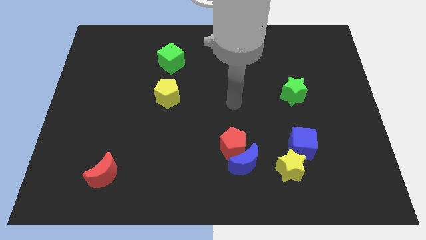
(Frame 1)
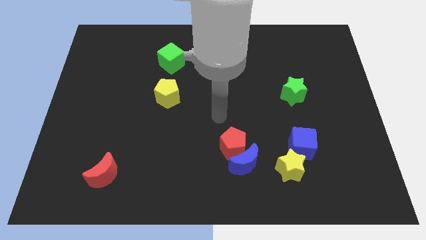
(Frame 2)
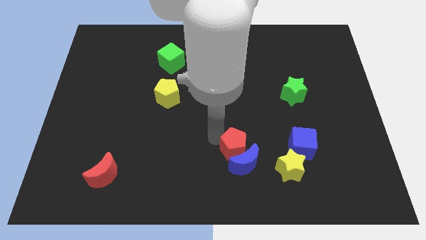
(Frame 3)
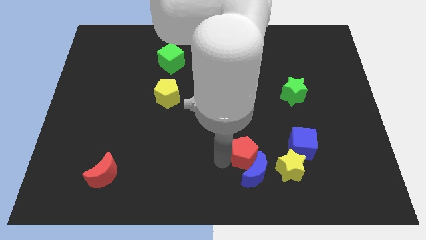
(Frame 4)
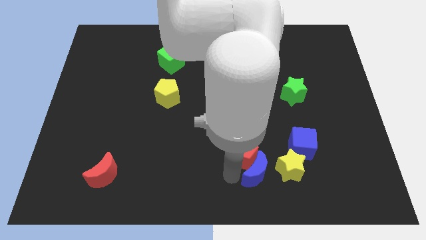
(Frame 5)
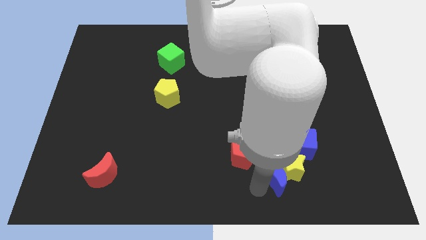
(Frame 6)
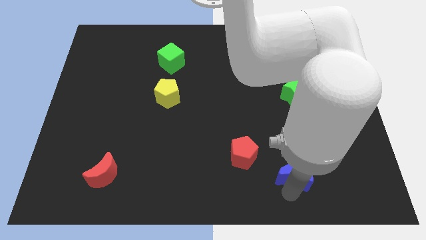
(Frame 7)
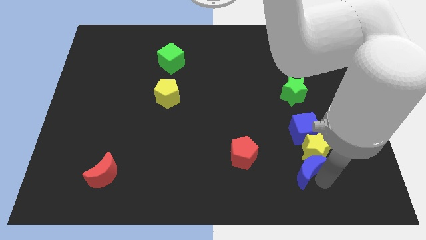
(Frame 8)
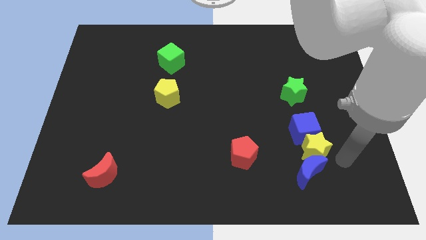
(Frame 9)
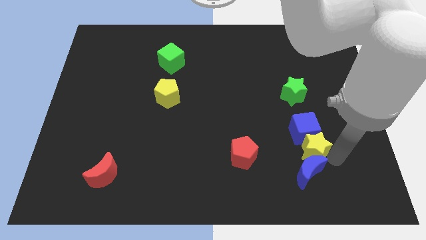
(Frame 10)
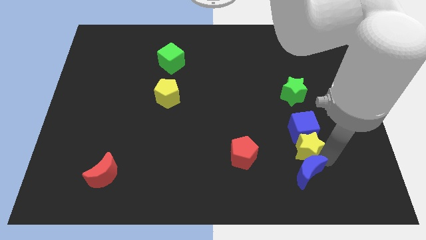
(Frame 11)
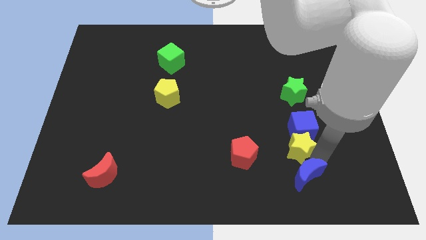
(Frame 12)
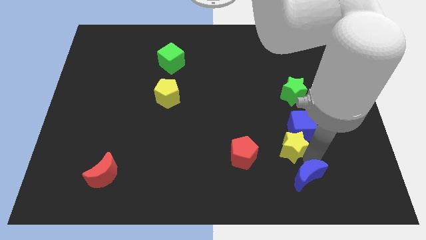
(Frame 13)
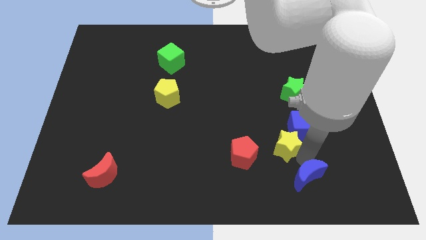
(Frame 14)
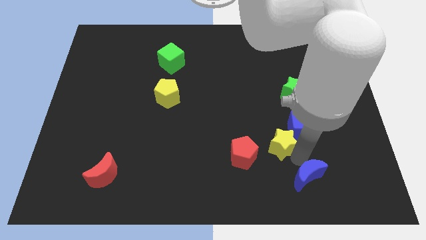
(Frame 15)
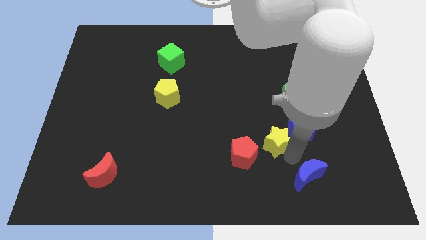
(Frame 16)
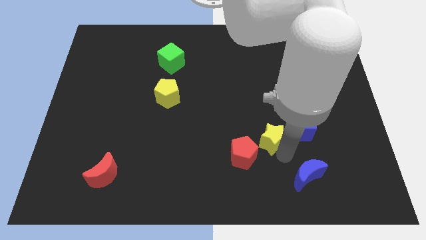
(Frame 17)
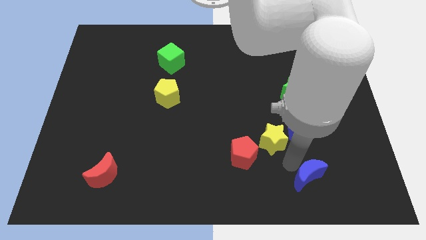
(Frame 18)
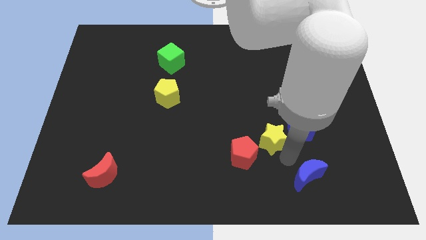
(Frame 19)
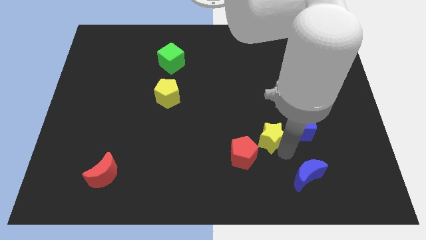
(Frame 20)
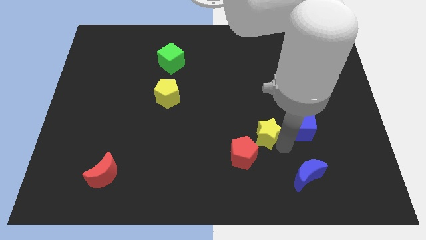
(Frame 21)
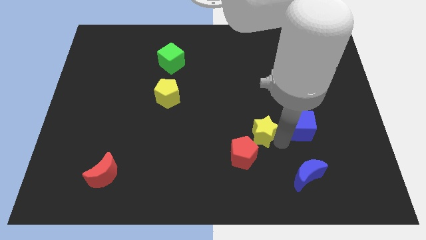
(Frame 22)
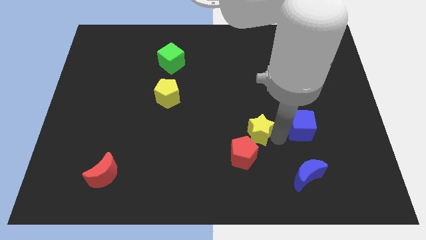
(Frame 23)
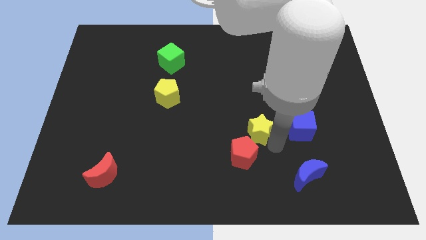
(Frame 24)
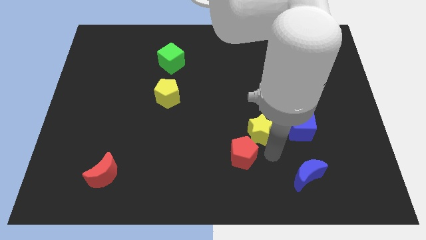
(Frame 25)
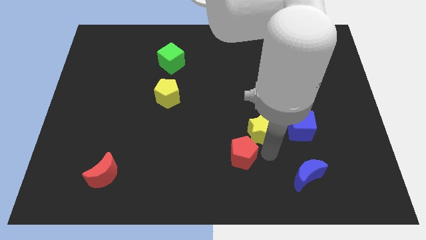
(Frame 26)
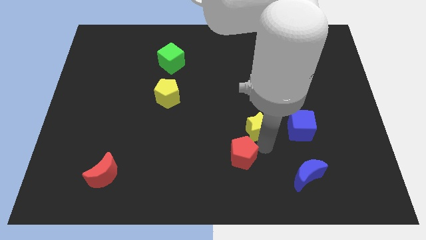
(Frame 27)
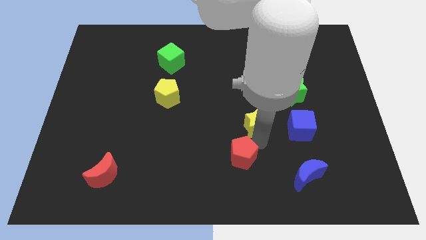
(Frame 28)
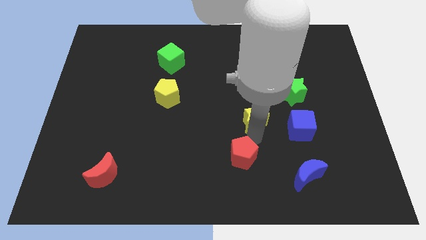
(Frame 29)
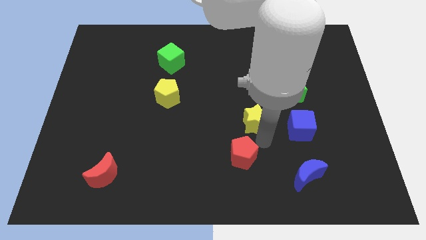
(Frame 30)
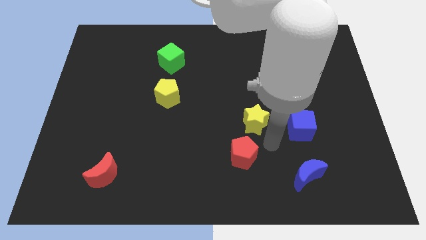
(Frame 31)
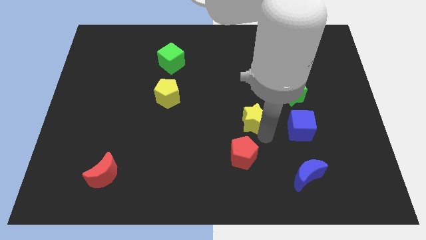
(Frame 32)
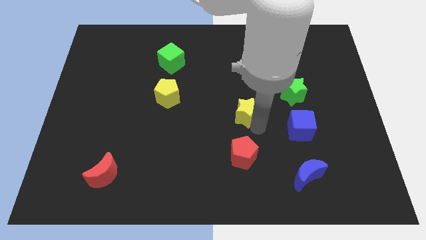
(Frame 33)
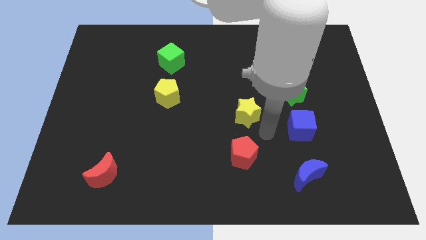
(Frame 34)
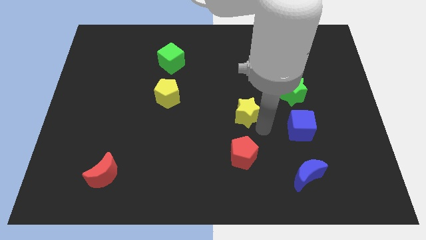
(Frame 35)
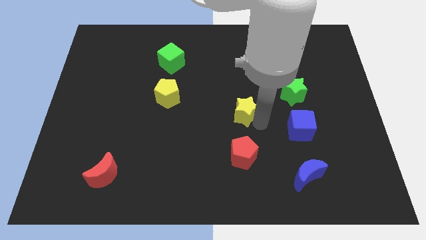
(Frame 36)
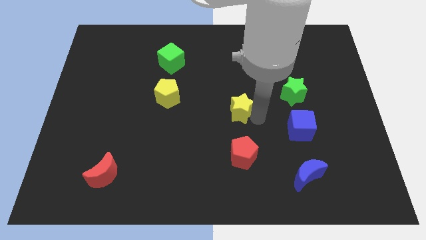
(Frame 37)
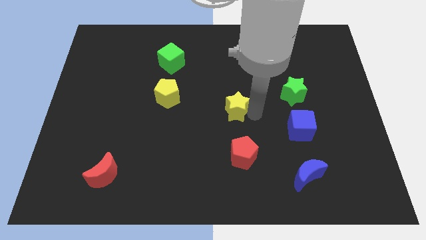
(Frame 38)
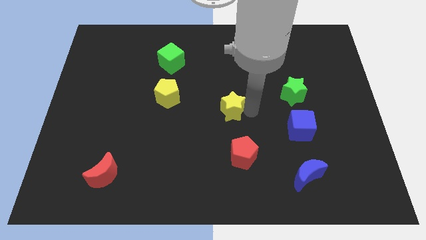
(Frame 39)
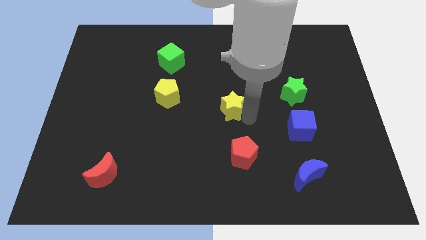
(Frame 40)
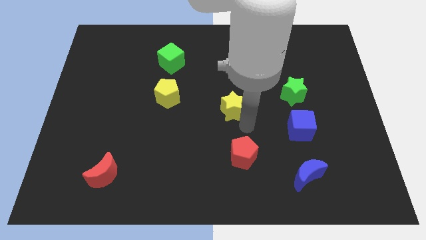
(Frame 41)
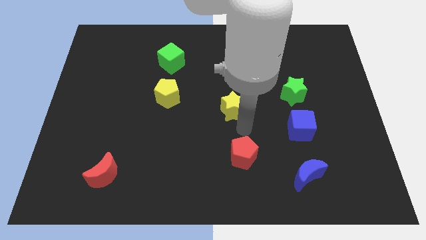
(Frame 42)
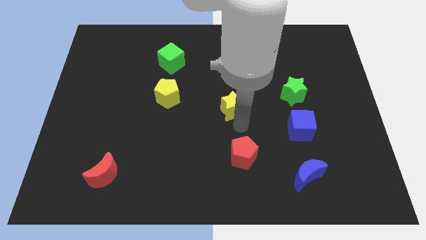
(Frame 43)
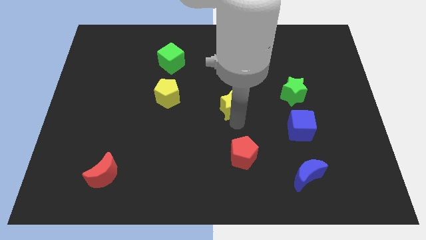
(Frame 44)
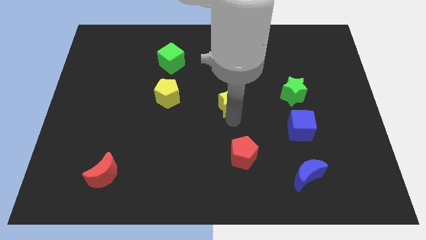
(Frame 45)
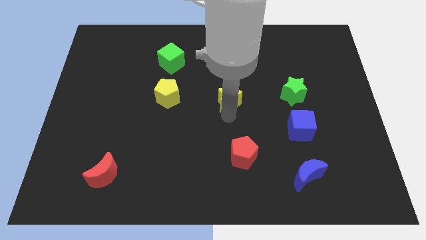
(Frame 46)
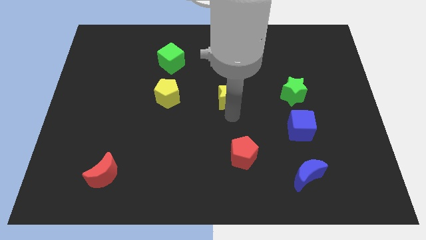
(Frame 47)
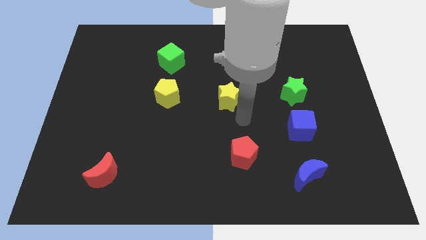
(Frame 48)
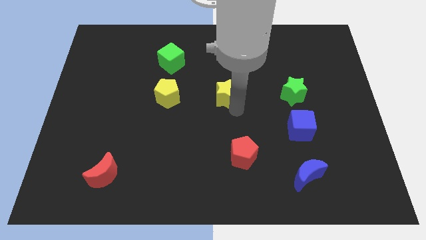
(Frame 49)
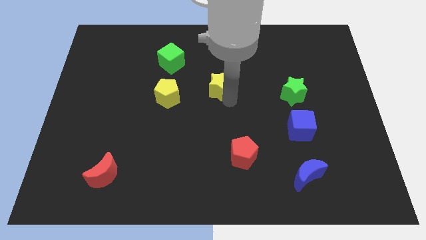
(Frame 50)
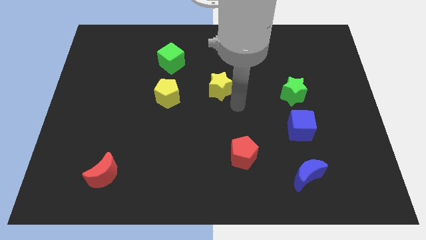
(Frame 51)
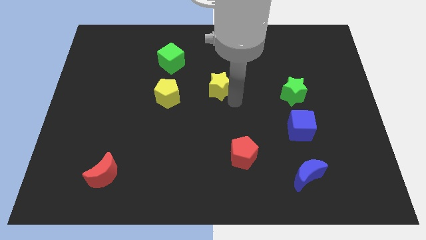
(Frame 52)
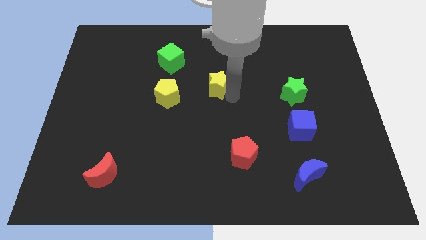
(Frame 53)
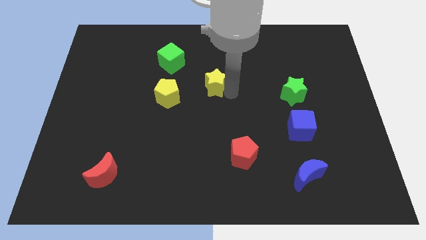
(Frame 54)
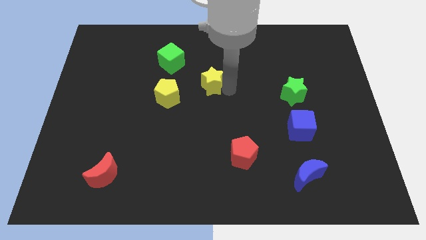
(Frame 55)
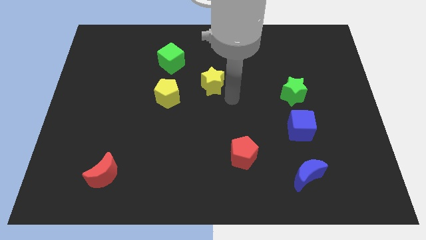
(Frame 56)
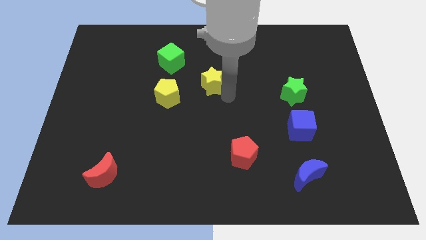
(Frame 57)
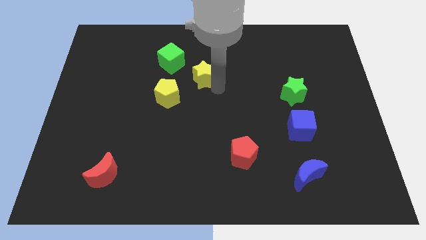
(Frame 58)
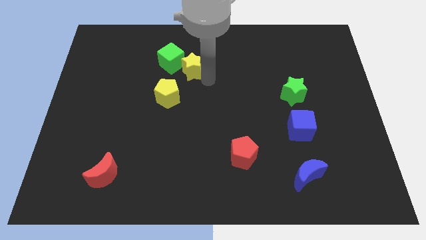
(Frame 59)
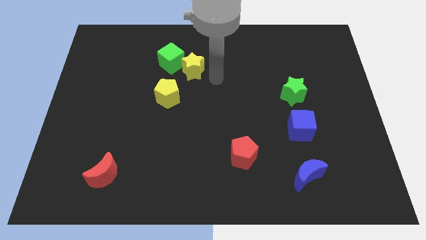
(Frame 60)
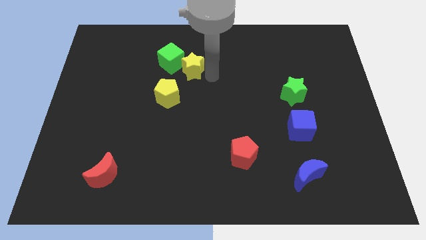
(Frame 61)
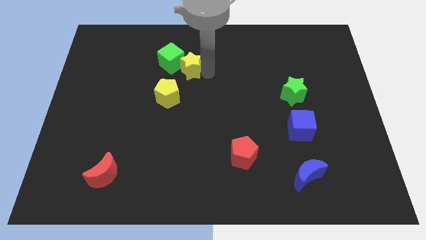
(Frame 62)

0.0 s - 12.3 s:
move the yellow star close to the green cube

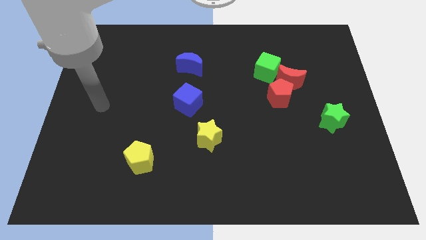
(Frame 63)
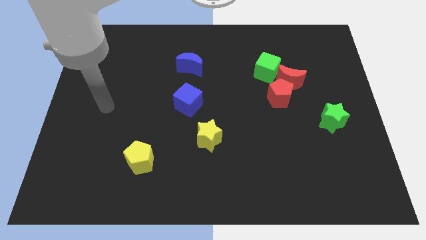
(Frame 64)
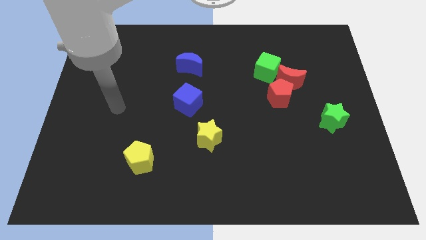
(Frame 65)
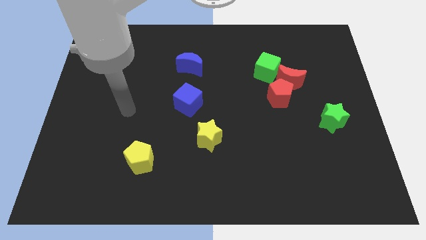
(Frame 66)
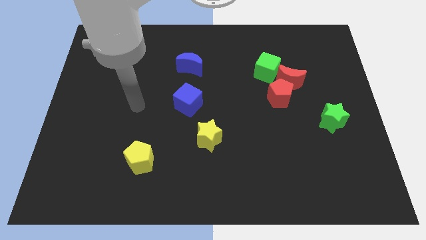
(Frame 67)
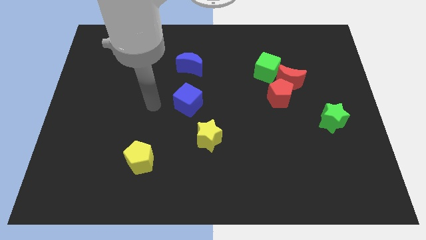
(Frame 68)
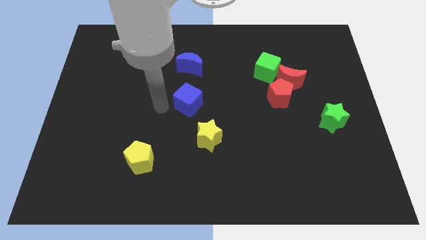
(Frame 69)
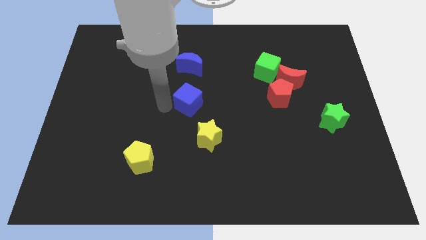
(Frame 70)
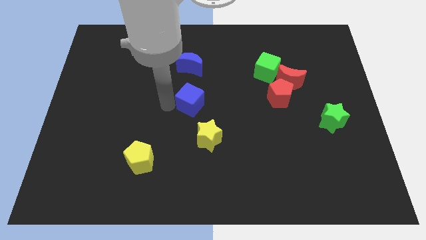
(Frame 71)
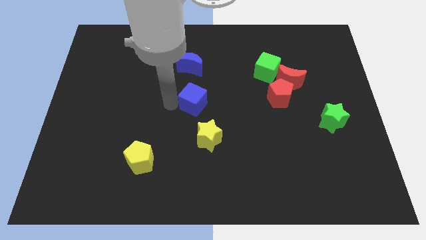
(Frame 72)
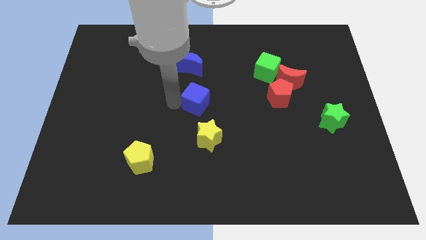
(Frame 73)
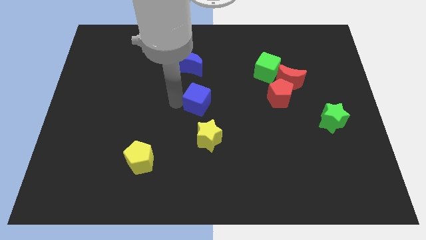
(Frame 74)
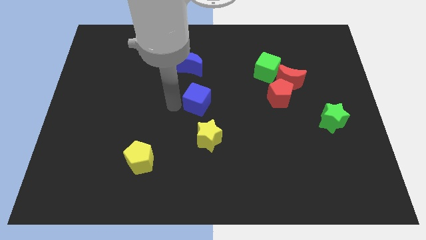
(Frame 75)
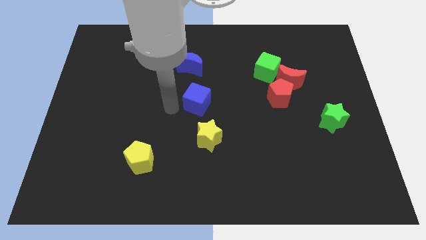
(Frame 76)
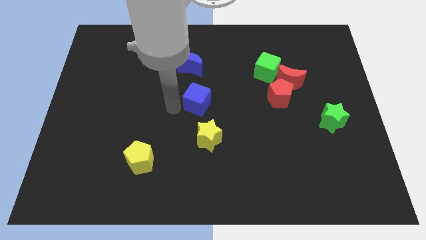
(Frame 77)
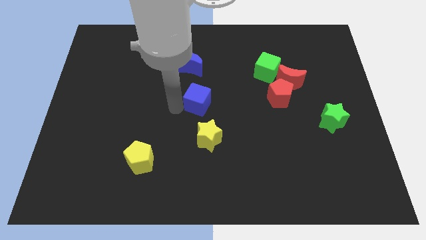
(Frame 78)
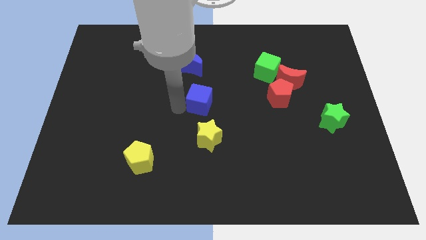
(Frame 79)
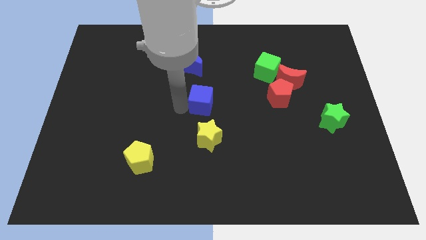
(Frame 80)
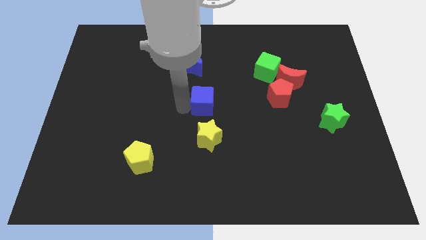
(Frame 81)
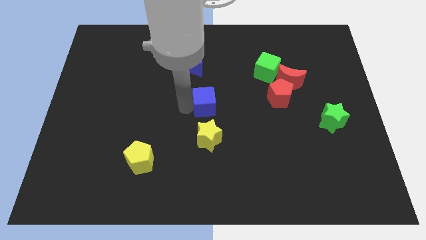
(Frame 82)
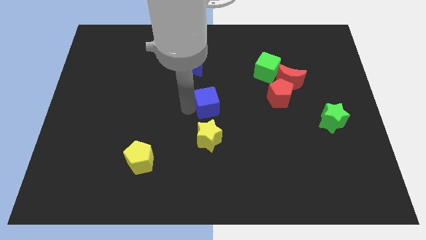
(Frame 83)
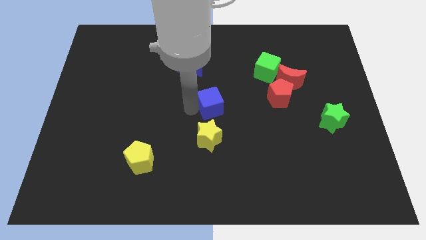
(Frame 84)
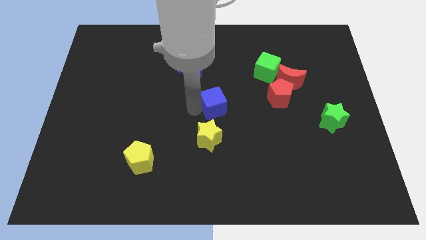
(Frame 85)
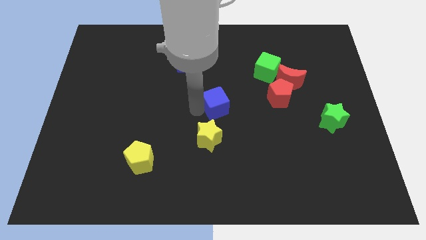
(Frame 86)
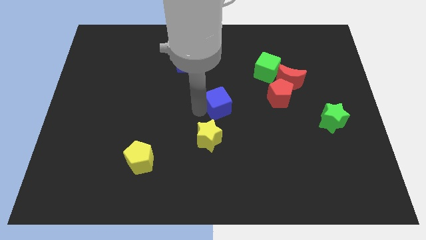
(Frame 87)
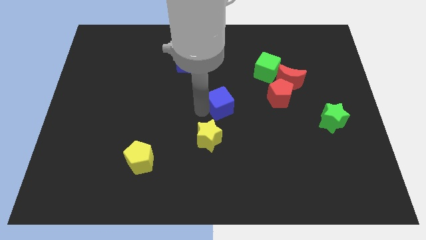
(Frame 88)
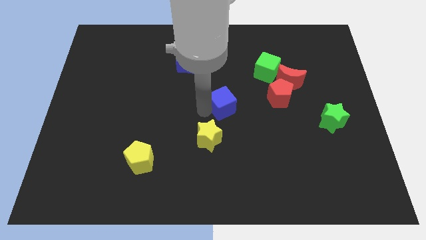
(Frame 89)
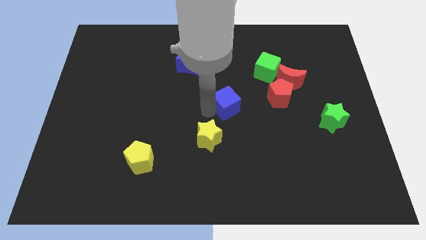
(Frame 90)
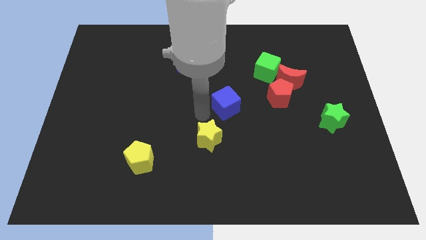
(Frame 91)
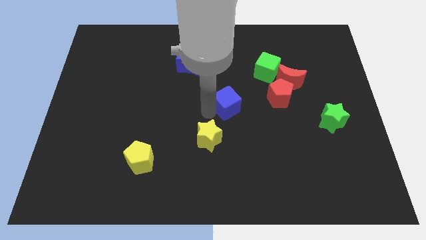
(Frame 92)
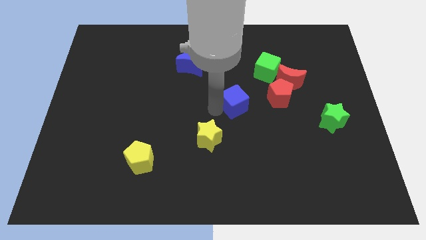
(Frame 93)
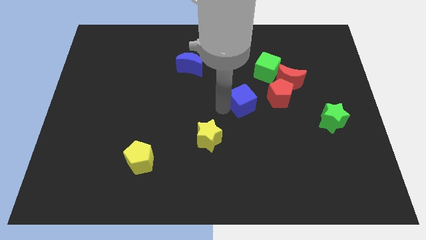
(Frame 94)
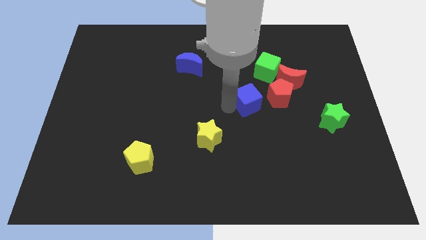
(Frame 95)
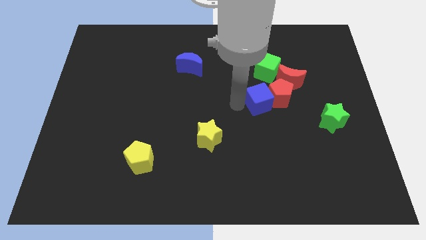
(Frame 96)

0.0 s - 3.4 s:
push the blue cube towards the red pentagon
